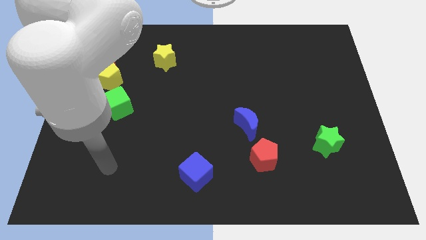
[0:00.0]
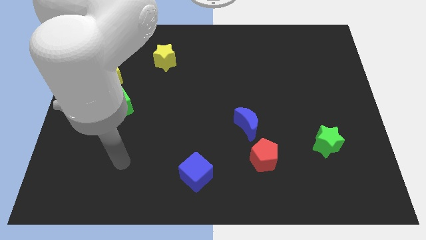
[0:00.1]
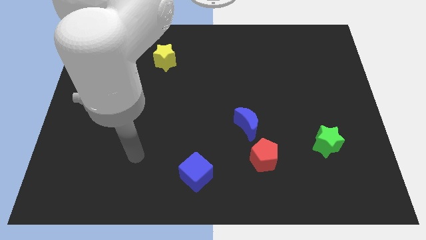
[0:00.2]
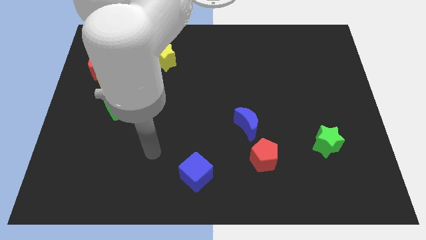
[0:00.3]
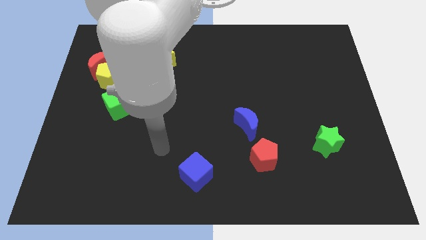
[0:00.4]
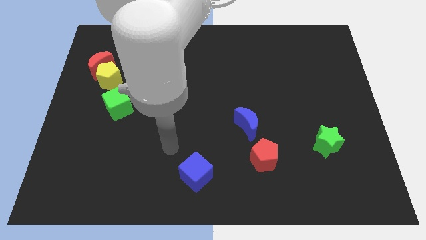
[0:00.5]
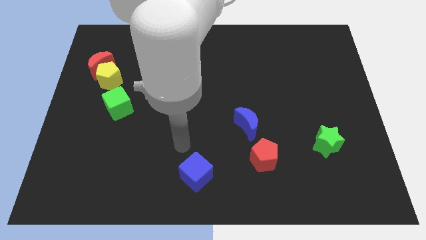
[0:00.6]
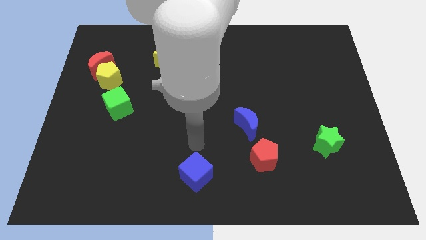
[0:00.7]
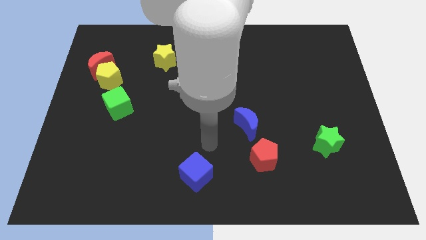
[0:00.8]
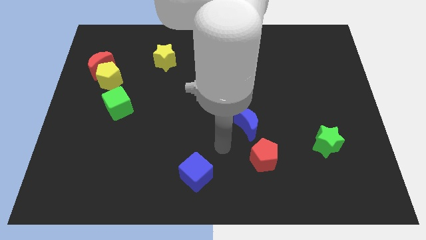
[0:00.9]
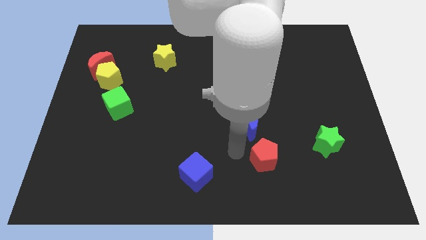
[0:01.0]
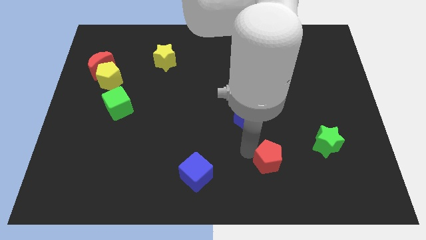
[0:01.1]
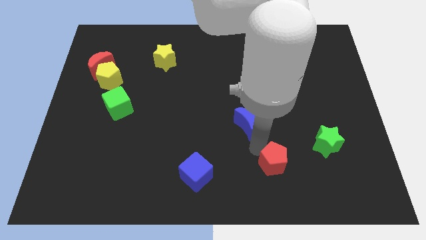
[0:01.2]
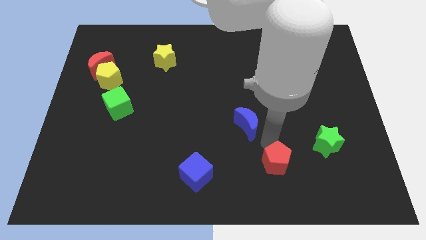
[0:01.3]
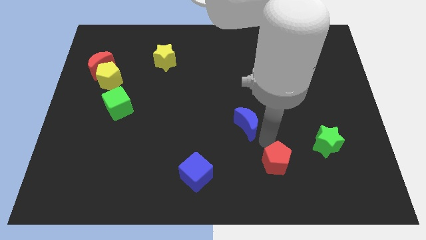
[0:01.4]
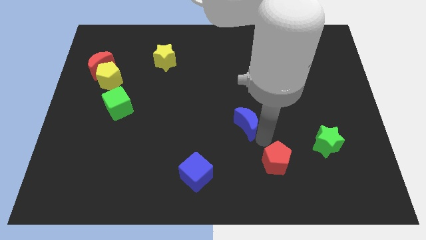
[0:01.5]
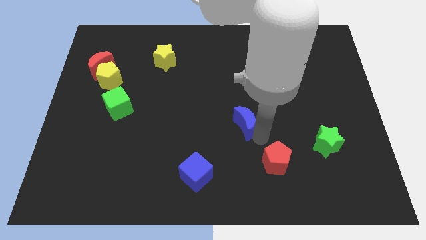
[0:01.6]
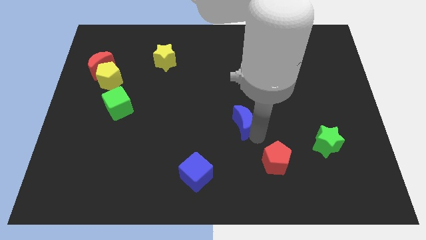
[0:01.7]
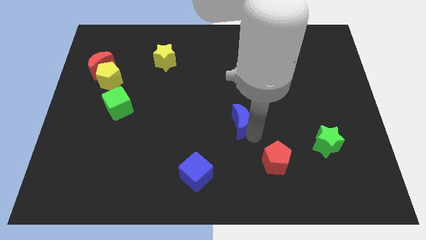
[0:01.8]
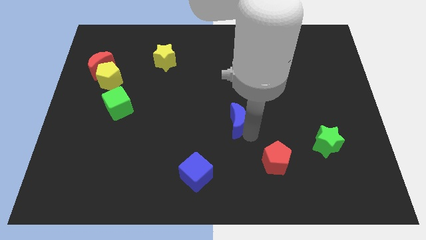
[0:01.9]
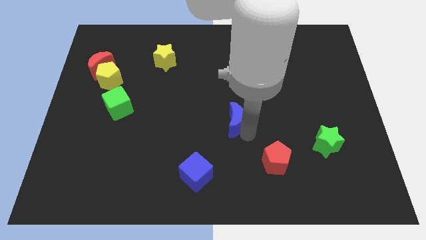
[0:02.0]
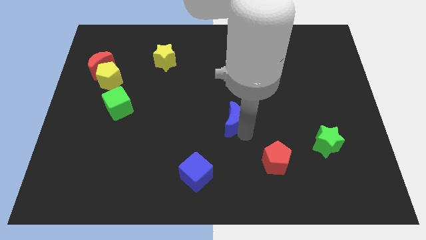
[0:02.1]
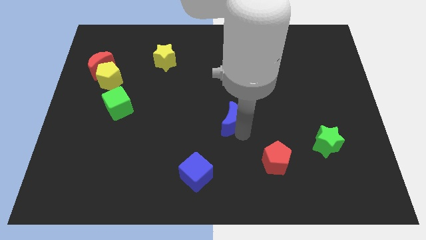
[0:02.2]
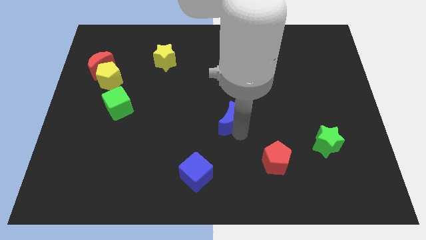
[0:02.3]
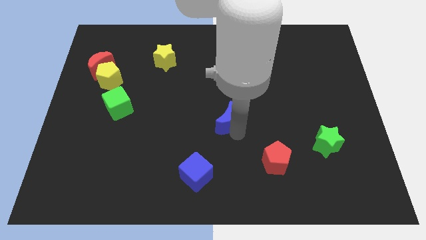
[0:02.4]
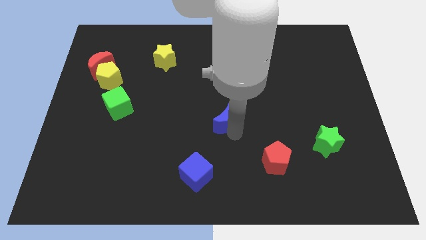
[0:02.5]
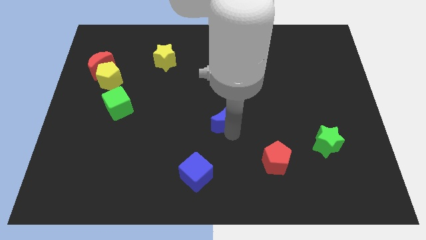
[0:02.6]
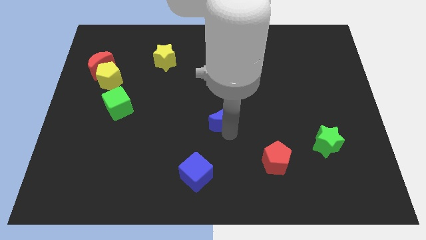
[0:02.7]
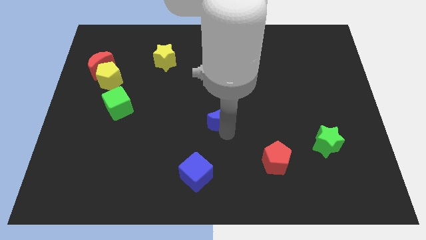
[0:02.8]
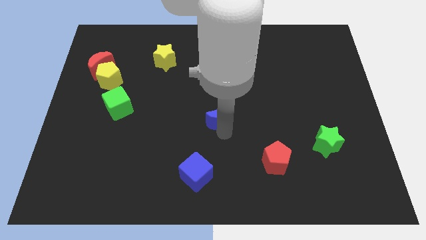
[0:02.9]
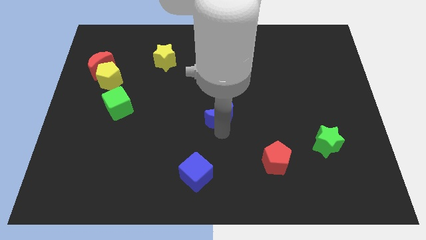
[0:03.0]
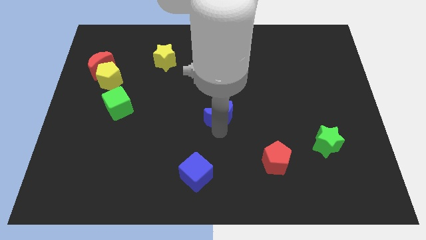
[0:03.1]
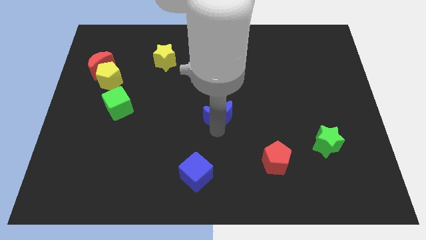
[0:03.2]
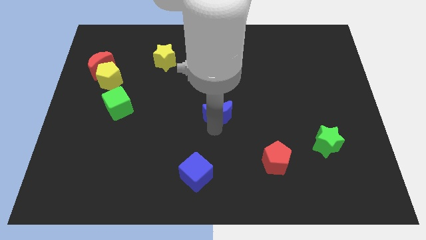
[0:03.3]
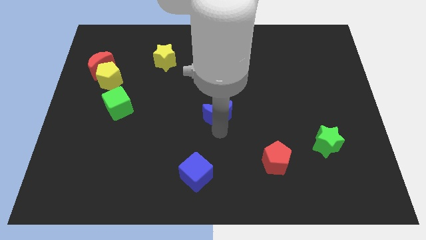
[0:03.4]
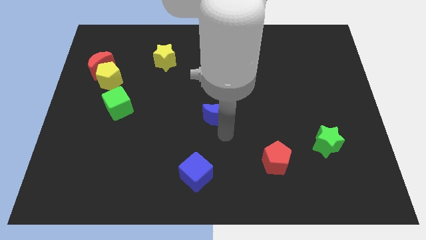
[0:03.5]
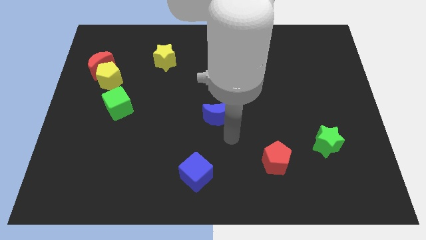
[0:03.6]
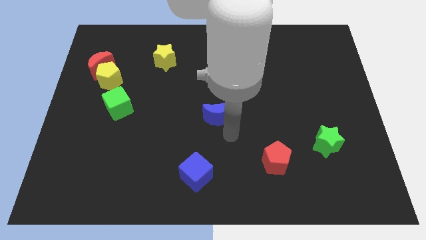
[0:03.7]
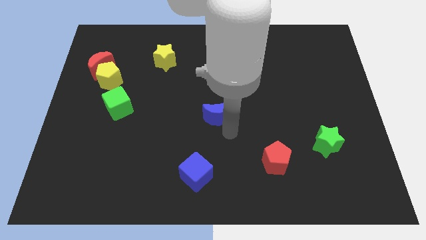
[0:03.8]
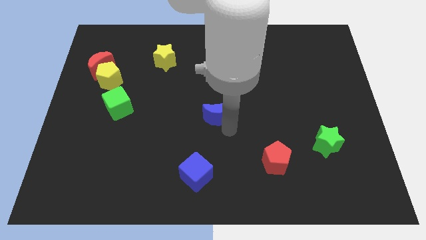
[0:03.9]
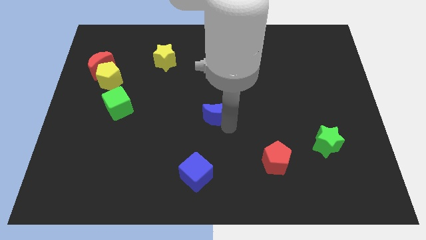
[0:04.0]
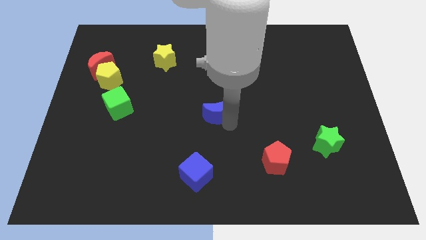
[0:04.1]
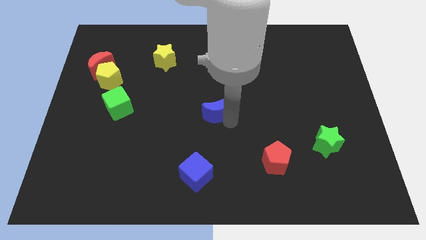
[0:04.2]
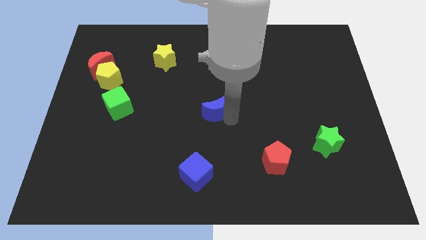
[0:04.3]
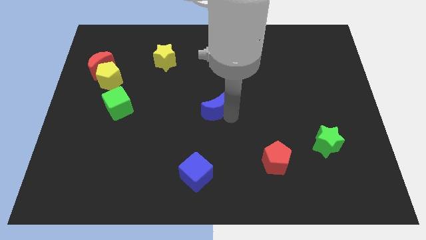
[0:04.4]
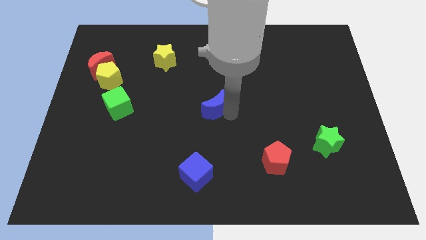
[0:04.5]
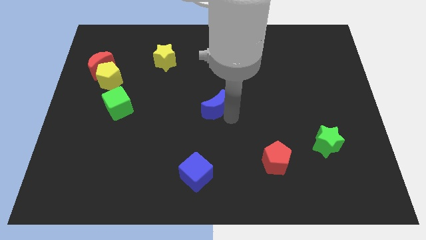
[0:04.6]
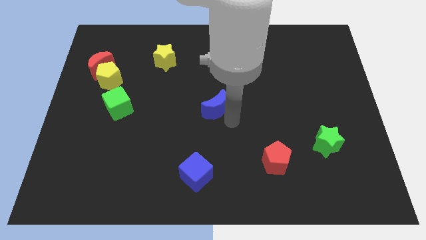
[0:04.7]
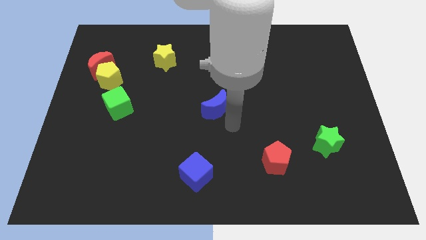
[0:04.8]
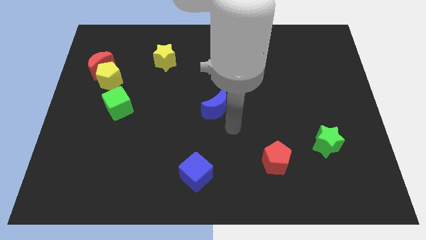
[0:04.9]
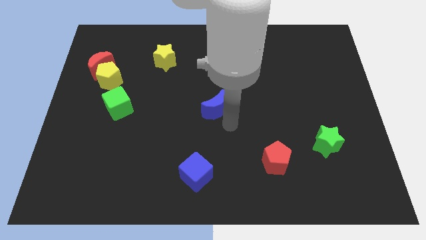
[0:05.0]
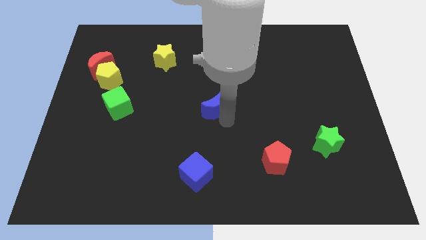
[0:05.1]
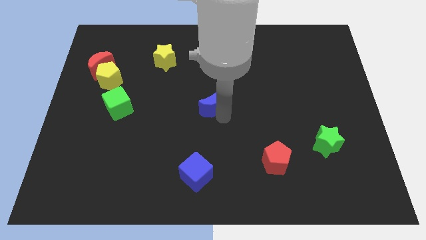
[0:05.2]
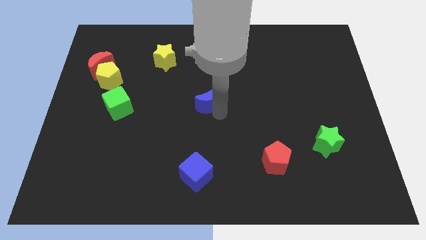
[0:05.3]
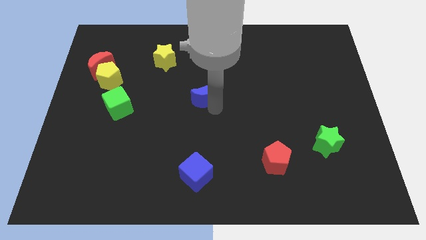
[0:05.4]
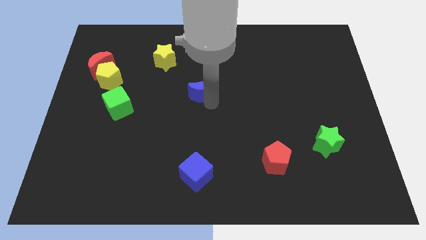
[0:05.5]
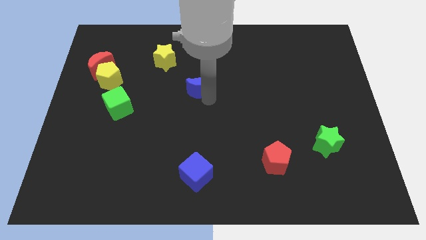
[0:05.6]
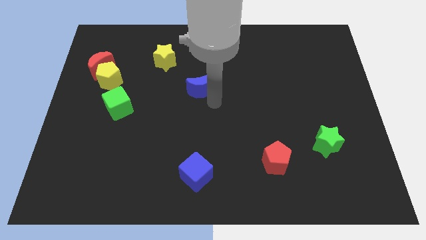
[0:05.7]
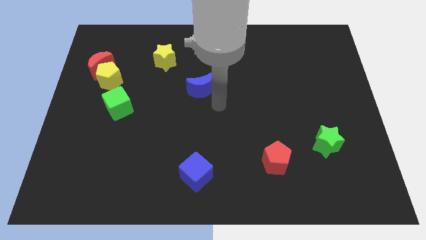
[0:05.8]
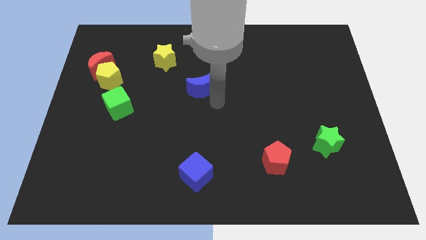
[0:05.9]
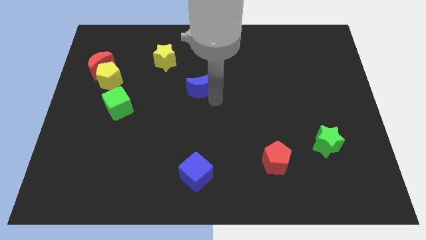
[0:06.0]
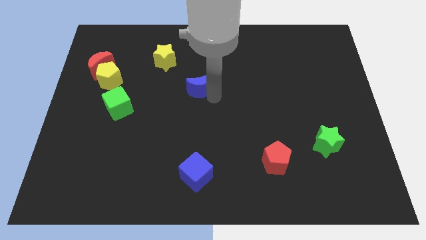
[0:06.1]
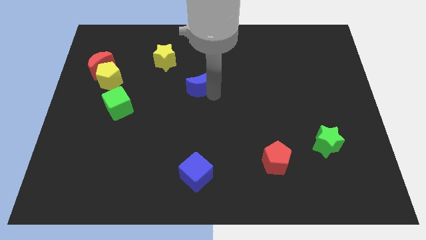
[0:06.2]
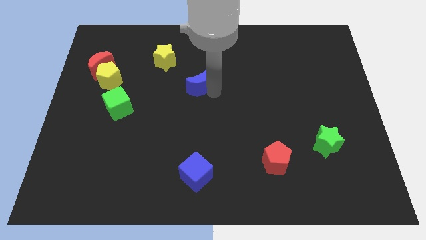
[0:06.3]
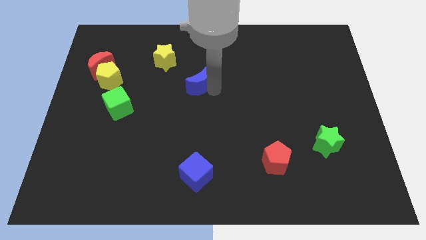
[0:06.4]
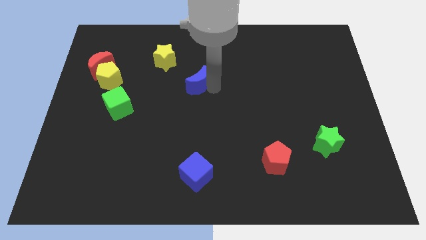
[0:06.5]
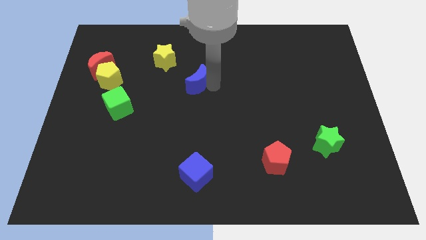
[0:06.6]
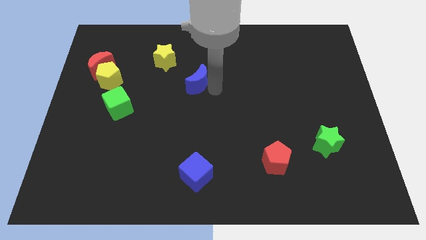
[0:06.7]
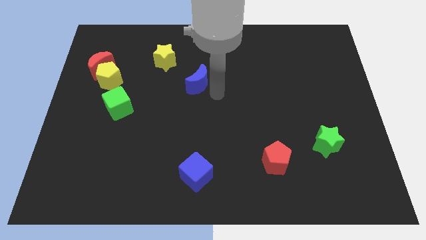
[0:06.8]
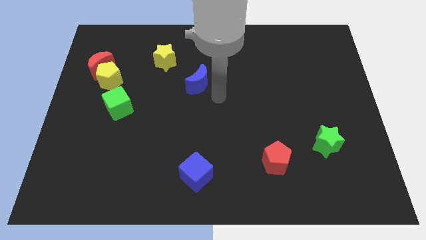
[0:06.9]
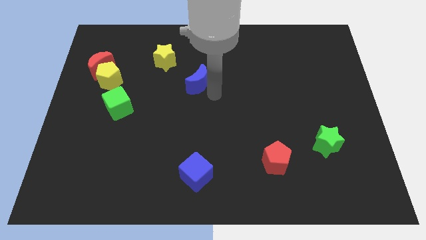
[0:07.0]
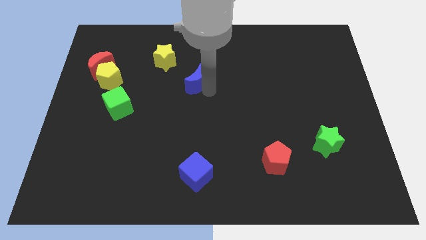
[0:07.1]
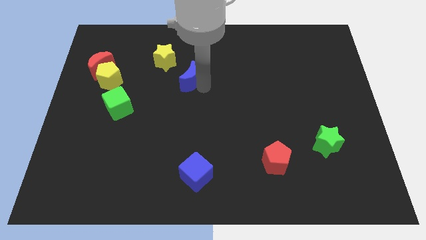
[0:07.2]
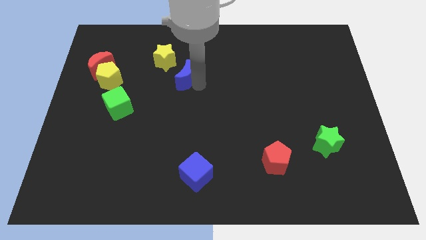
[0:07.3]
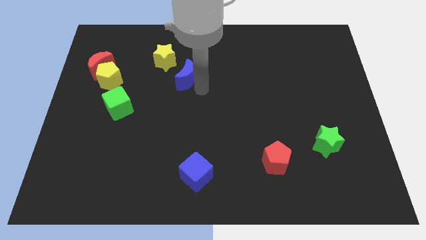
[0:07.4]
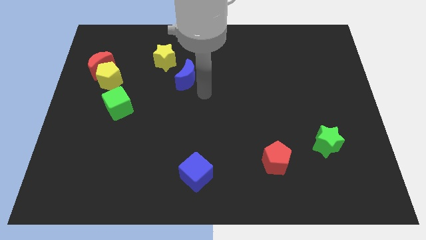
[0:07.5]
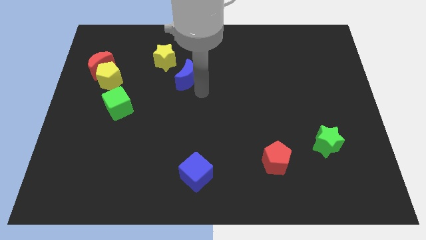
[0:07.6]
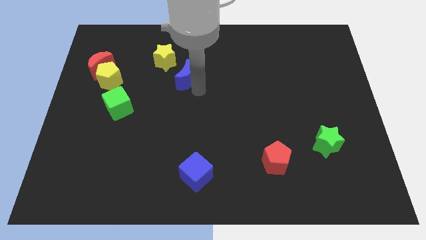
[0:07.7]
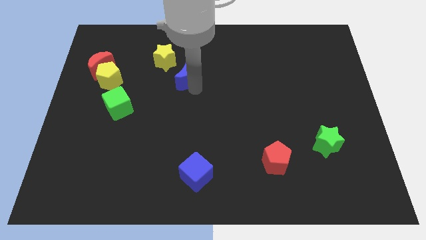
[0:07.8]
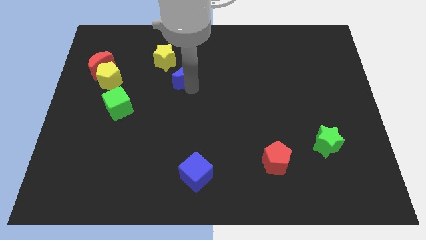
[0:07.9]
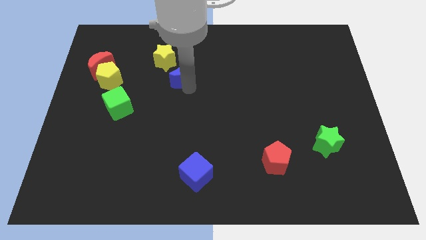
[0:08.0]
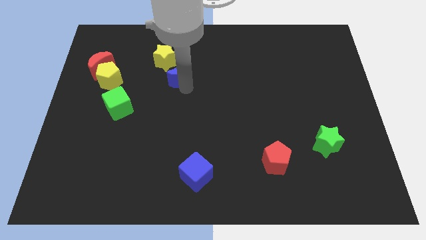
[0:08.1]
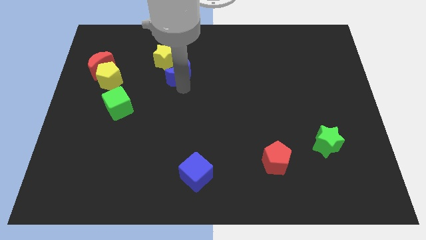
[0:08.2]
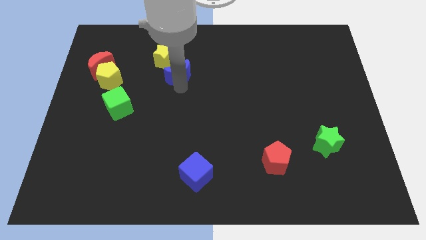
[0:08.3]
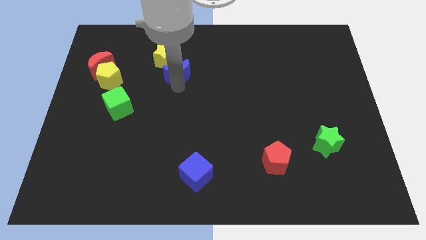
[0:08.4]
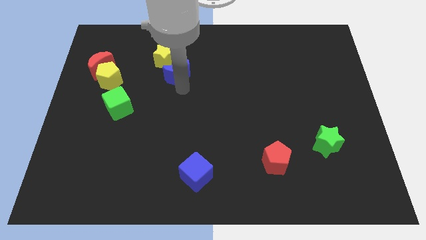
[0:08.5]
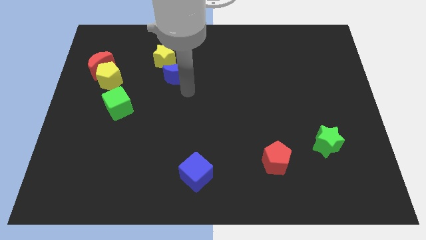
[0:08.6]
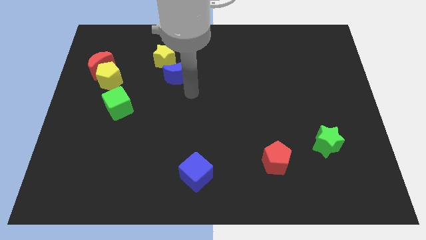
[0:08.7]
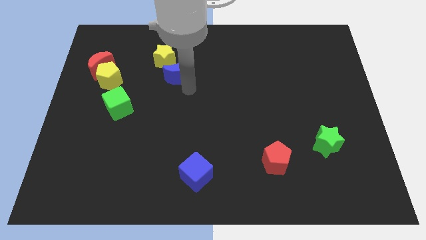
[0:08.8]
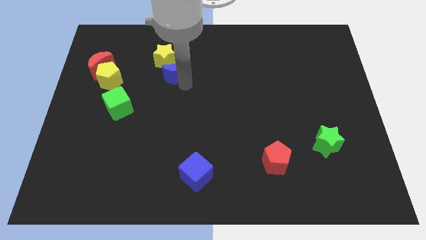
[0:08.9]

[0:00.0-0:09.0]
push the blue moon towards the yellow star
